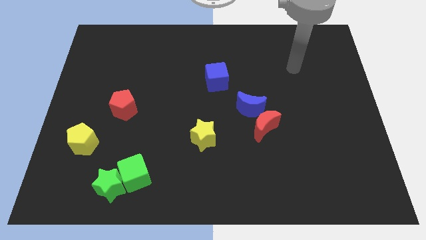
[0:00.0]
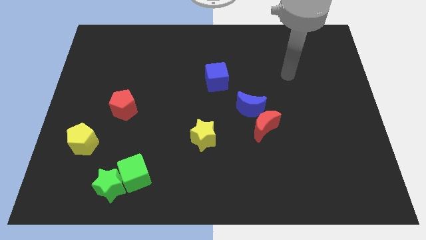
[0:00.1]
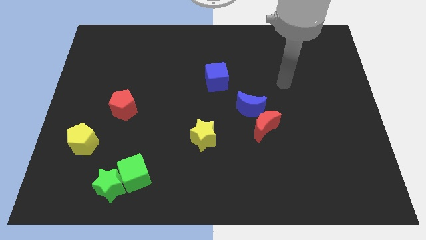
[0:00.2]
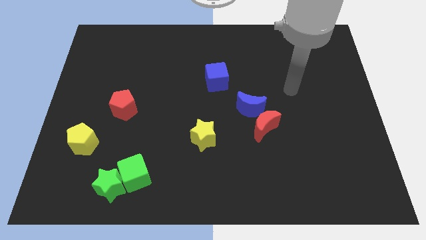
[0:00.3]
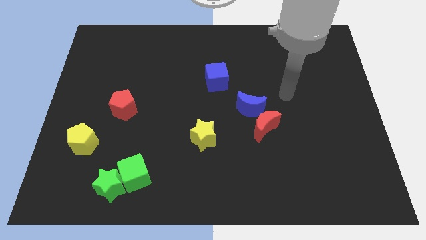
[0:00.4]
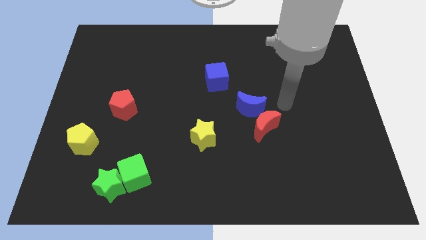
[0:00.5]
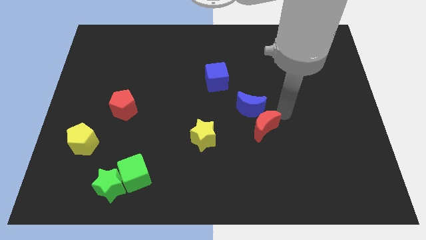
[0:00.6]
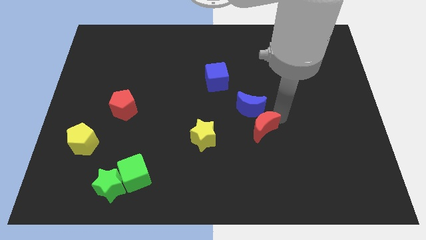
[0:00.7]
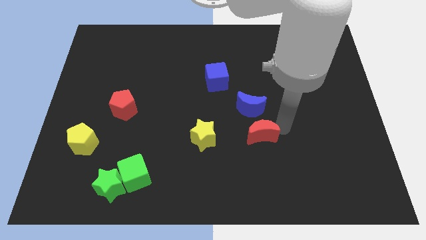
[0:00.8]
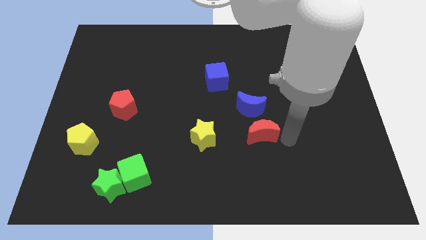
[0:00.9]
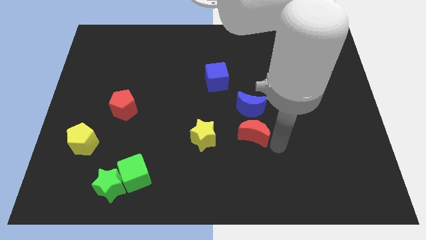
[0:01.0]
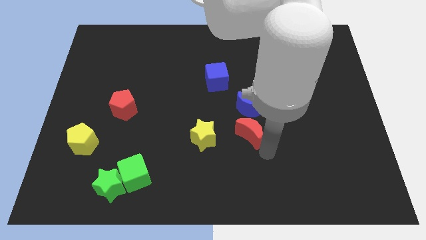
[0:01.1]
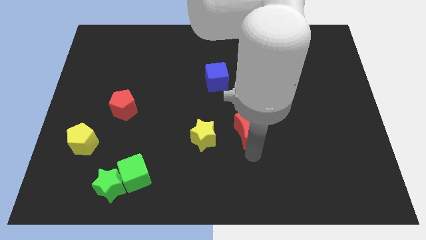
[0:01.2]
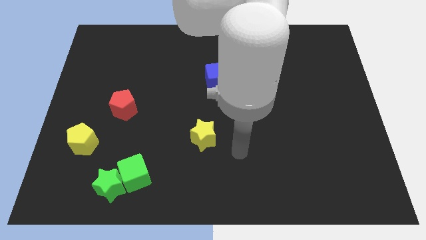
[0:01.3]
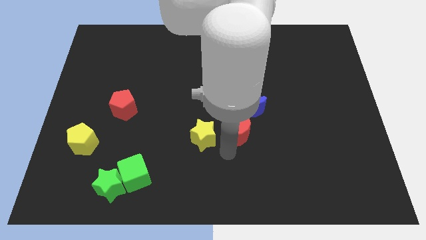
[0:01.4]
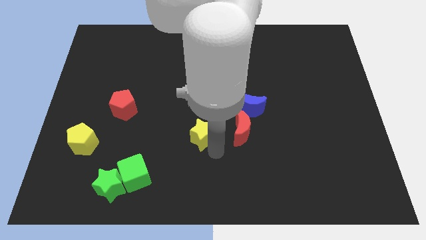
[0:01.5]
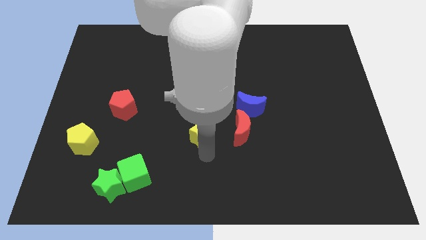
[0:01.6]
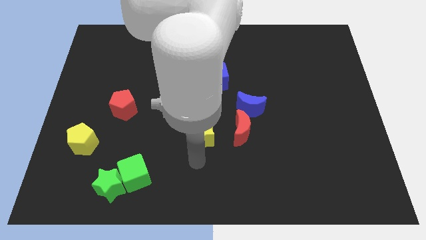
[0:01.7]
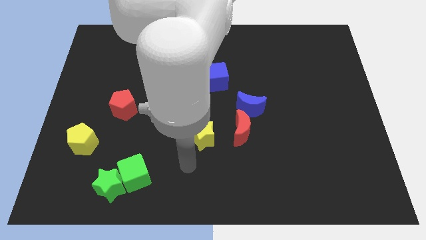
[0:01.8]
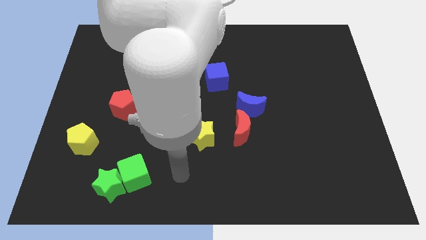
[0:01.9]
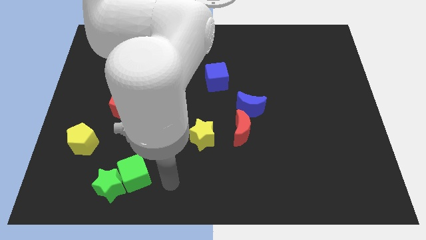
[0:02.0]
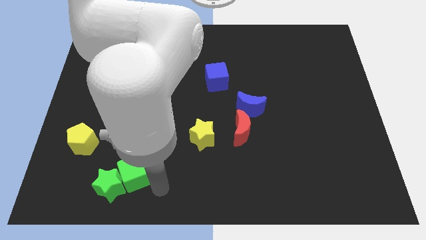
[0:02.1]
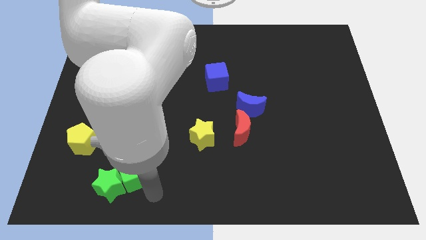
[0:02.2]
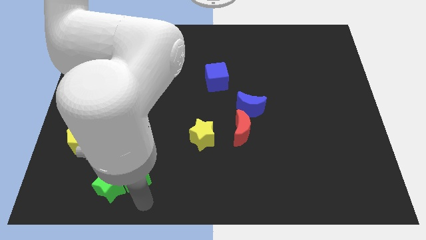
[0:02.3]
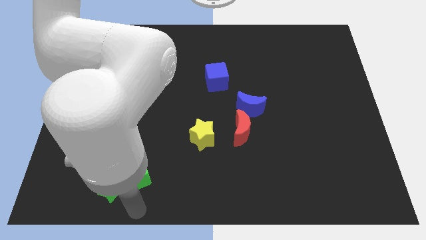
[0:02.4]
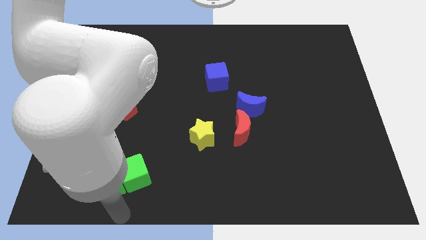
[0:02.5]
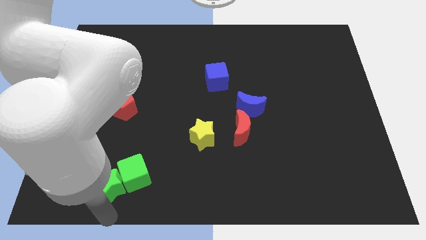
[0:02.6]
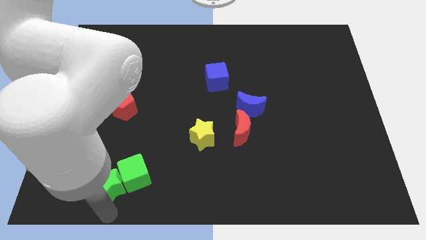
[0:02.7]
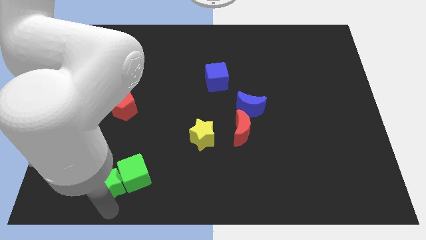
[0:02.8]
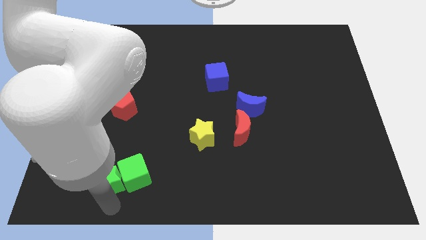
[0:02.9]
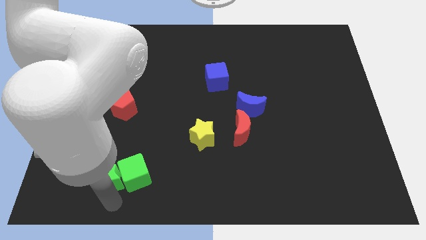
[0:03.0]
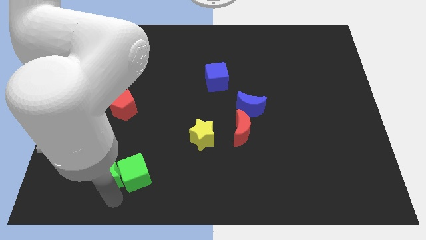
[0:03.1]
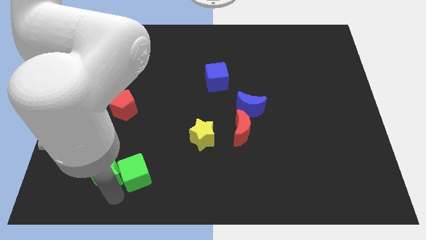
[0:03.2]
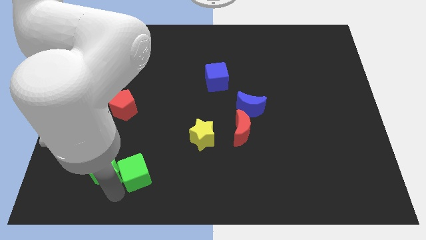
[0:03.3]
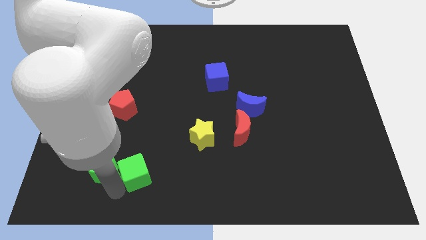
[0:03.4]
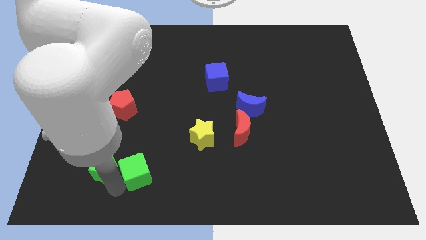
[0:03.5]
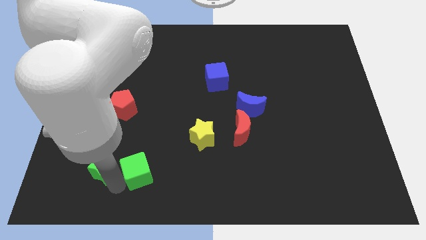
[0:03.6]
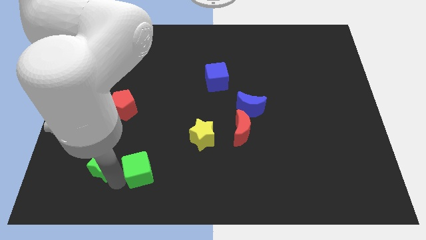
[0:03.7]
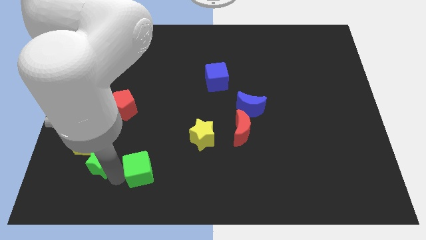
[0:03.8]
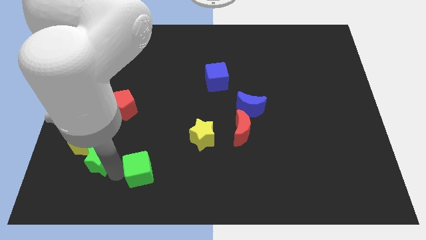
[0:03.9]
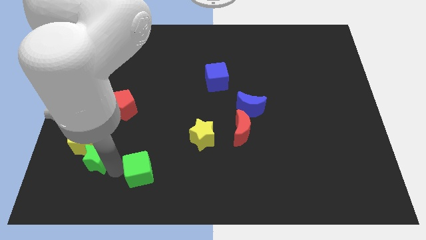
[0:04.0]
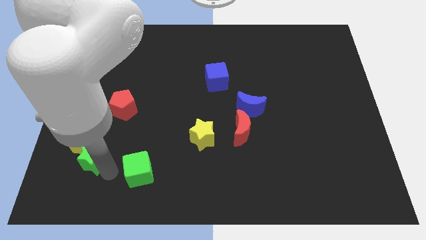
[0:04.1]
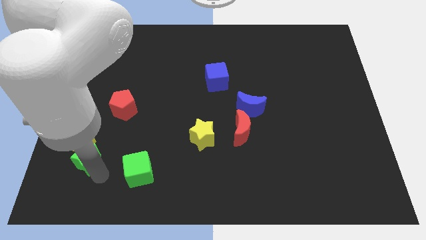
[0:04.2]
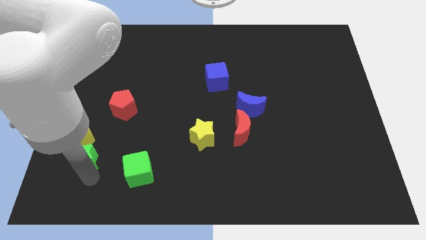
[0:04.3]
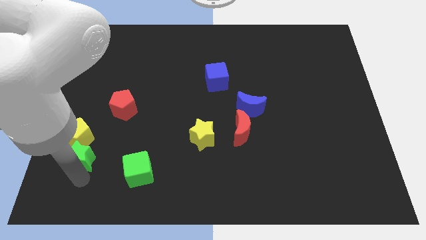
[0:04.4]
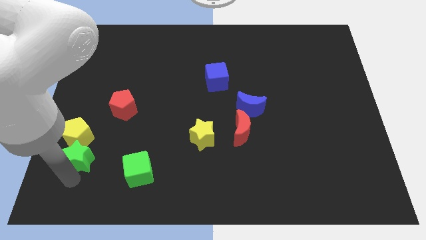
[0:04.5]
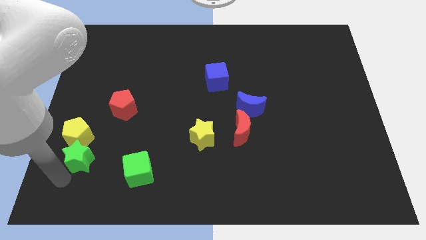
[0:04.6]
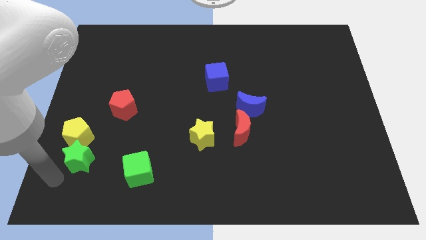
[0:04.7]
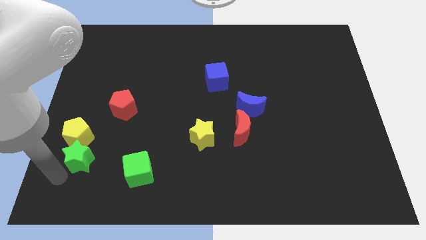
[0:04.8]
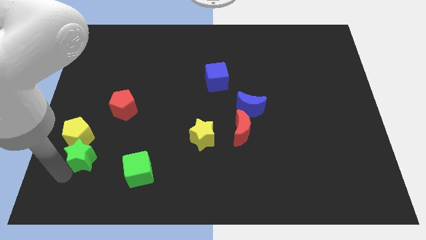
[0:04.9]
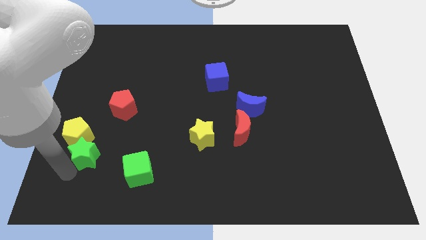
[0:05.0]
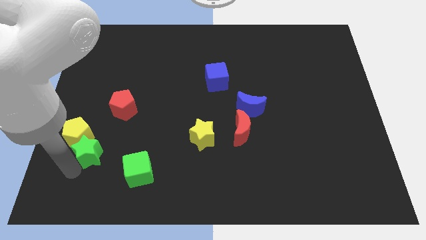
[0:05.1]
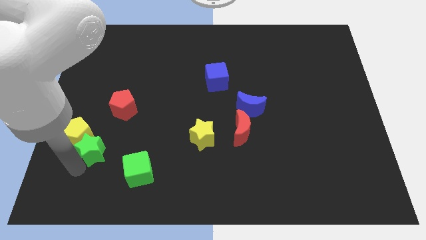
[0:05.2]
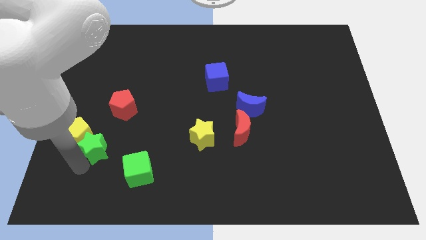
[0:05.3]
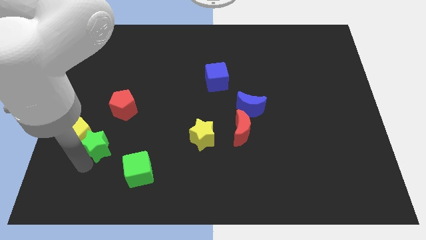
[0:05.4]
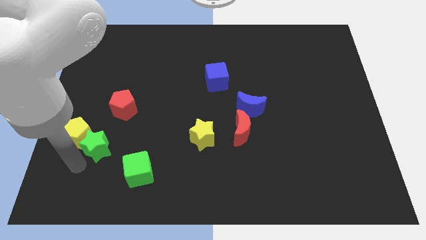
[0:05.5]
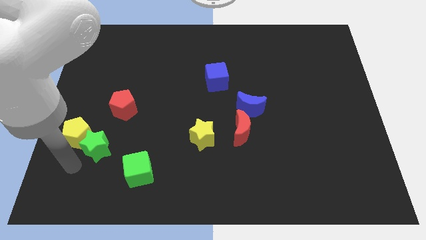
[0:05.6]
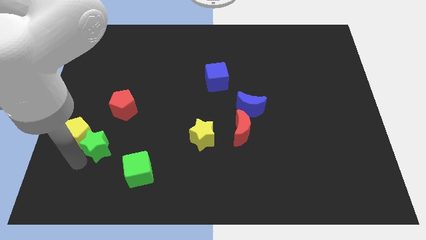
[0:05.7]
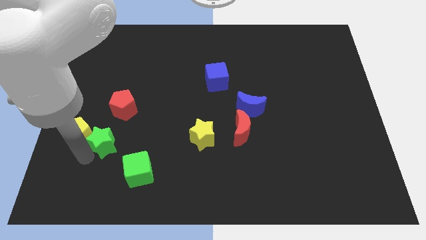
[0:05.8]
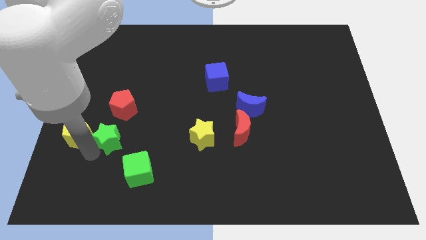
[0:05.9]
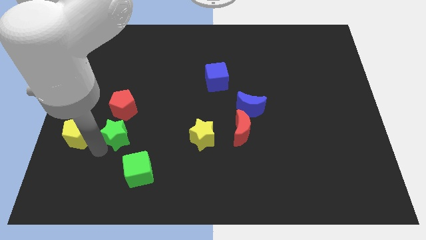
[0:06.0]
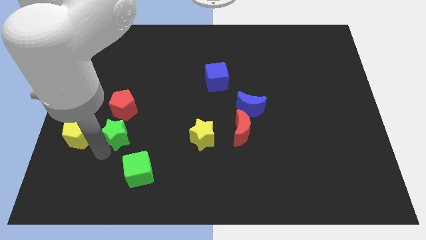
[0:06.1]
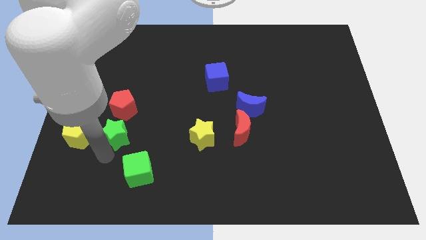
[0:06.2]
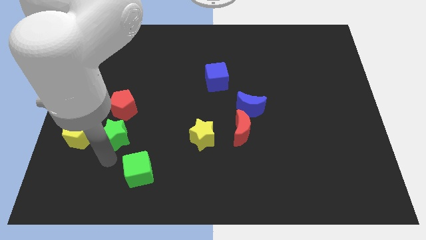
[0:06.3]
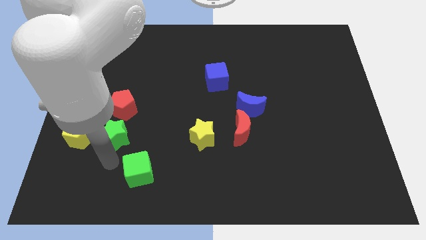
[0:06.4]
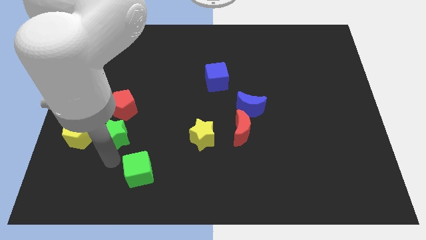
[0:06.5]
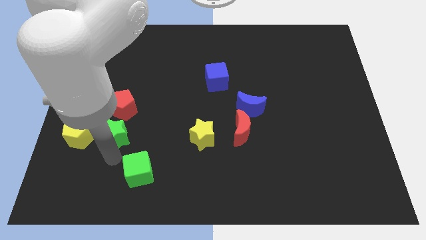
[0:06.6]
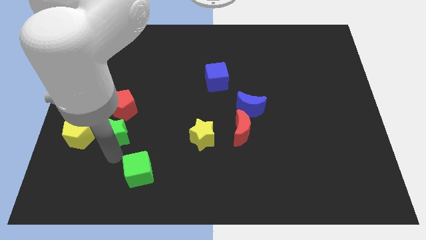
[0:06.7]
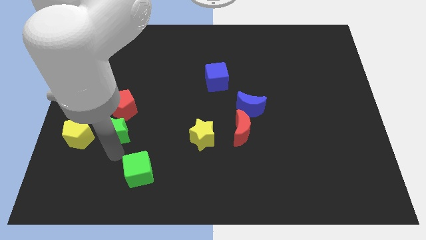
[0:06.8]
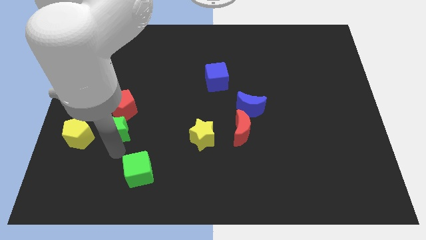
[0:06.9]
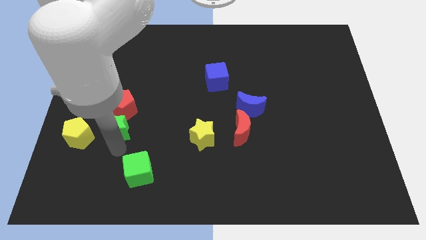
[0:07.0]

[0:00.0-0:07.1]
push the green star next to the red pentagon

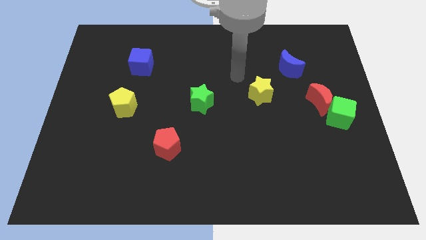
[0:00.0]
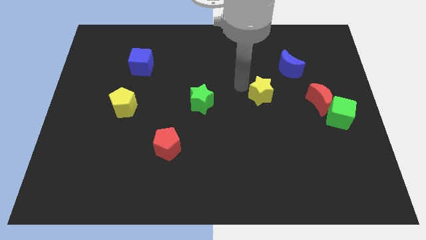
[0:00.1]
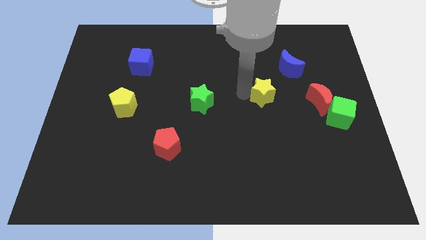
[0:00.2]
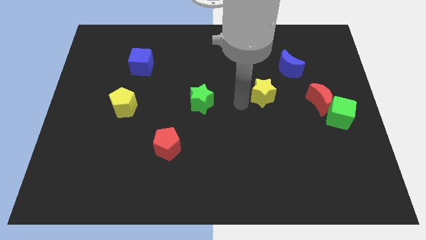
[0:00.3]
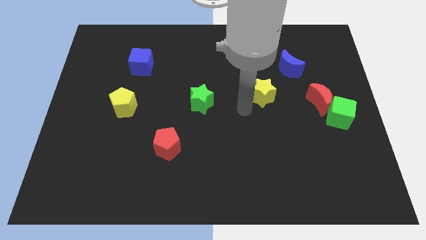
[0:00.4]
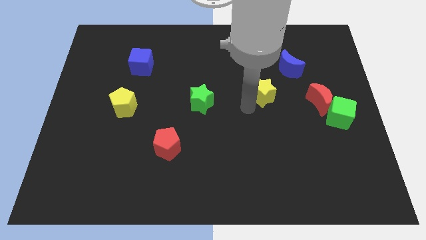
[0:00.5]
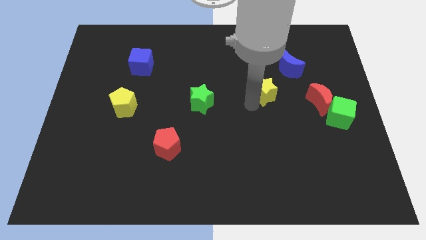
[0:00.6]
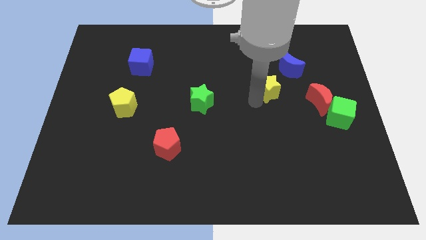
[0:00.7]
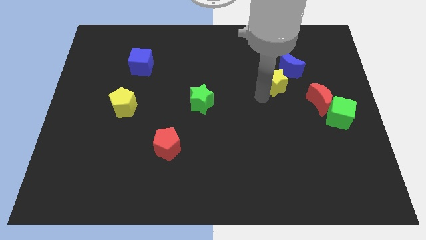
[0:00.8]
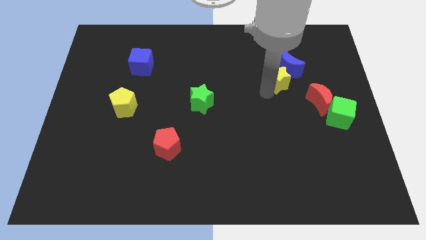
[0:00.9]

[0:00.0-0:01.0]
slide the yellow star towards the blue moon
